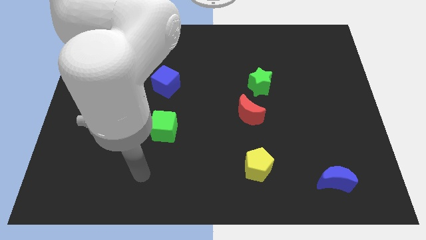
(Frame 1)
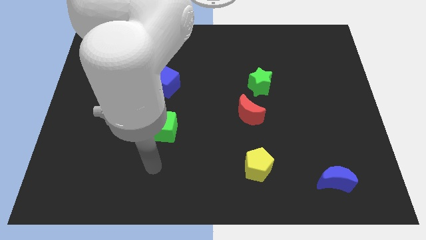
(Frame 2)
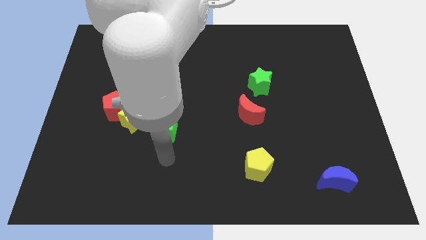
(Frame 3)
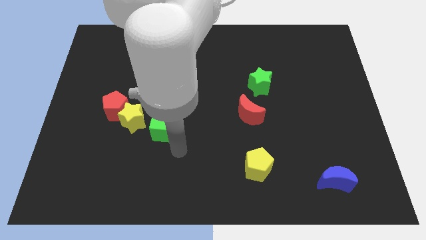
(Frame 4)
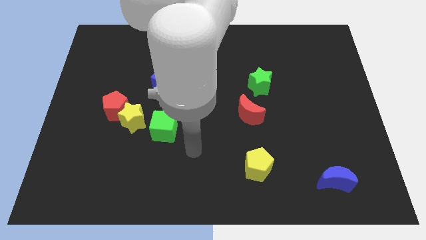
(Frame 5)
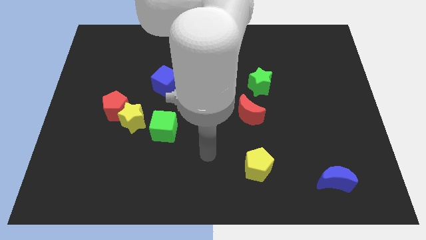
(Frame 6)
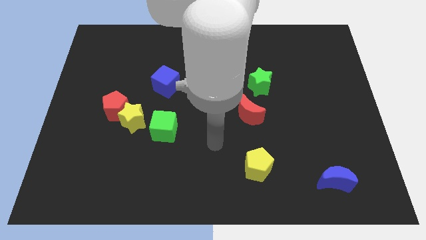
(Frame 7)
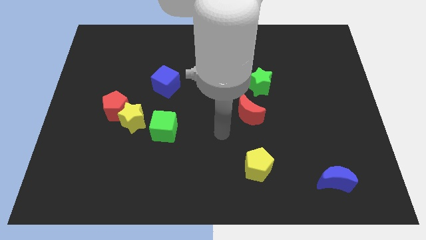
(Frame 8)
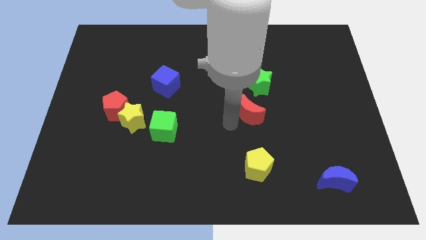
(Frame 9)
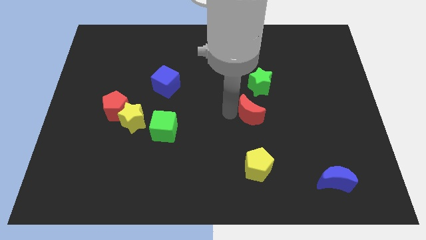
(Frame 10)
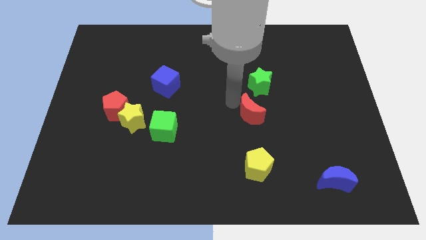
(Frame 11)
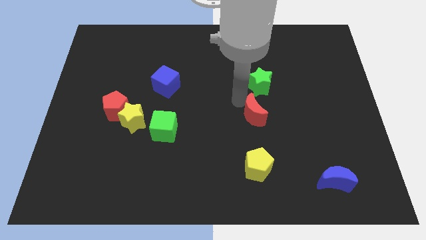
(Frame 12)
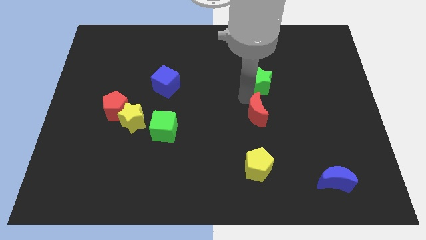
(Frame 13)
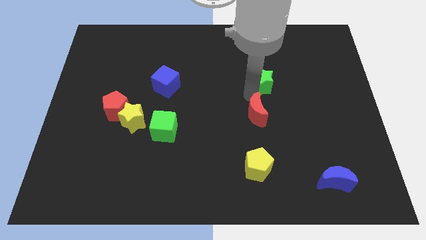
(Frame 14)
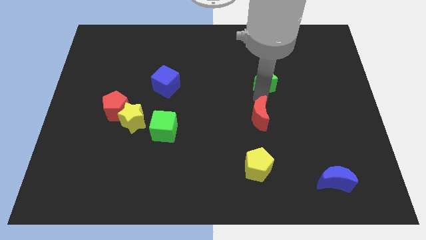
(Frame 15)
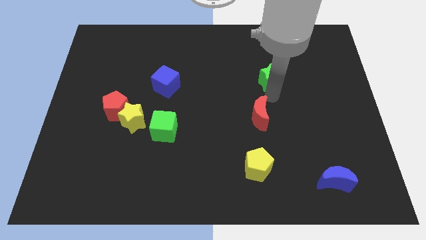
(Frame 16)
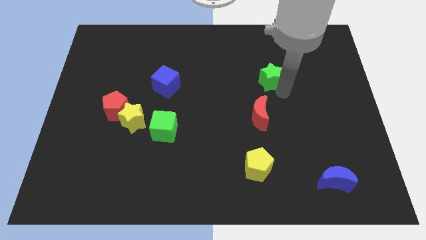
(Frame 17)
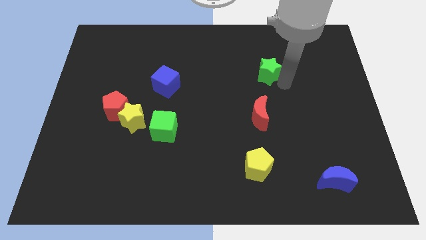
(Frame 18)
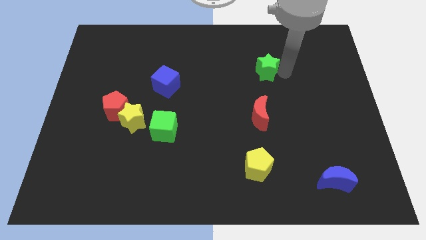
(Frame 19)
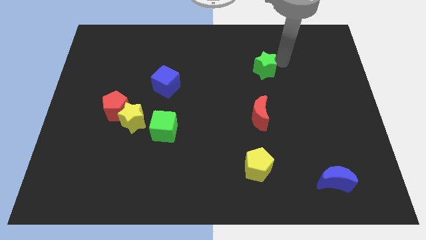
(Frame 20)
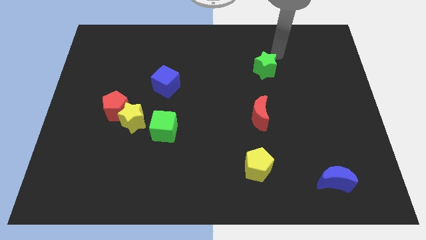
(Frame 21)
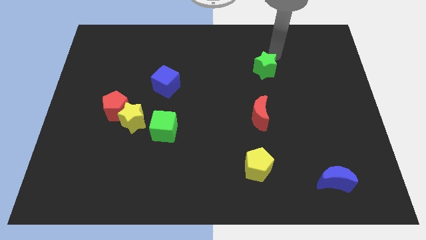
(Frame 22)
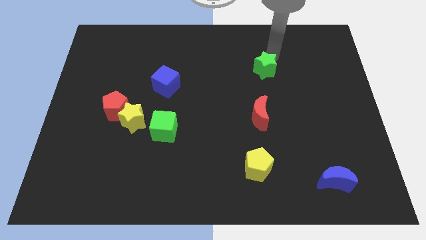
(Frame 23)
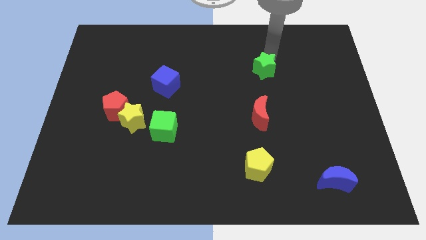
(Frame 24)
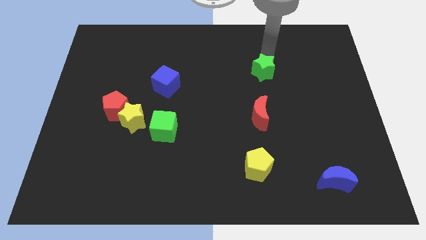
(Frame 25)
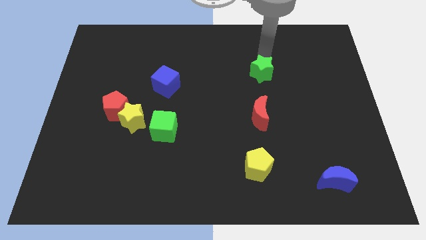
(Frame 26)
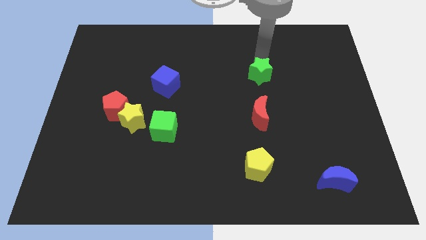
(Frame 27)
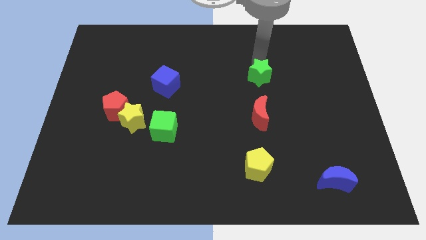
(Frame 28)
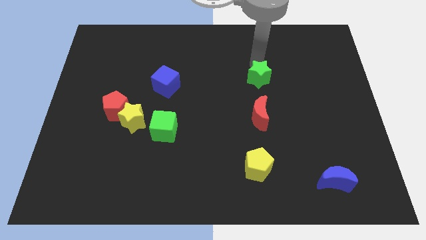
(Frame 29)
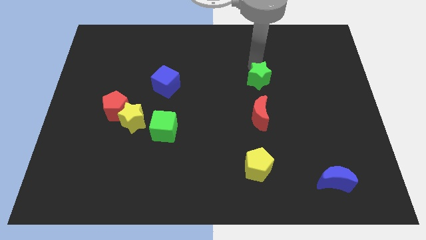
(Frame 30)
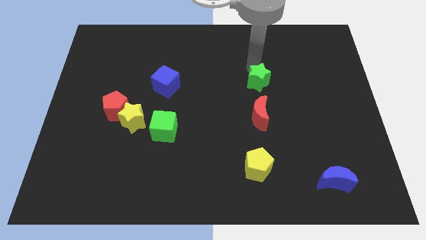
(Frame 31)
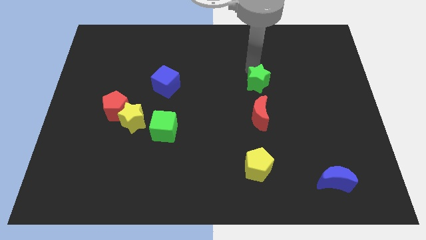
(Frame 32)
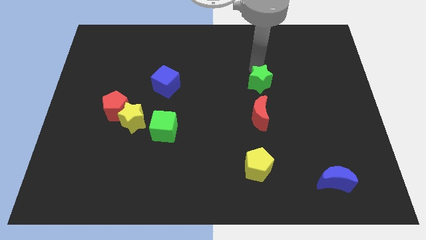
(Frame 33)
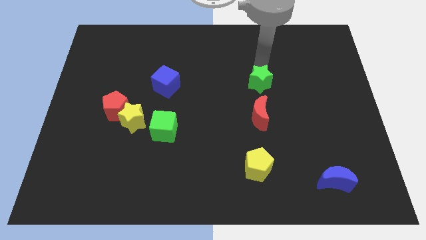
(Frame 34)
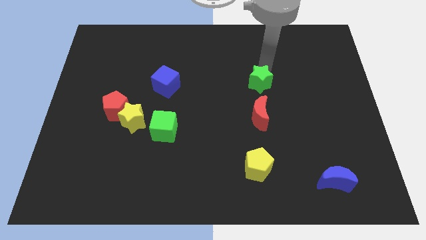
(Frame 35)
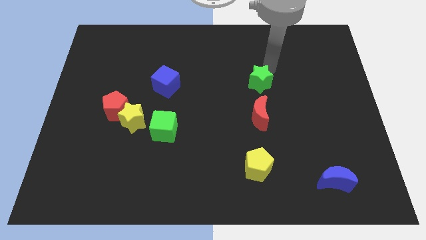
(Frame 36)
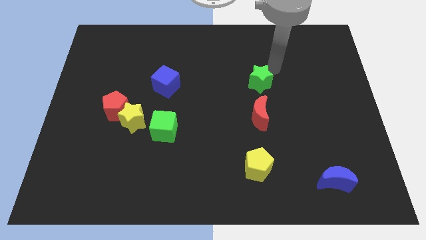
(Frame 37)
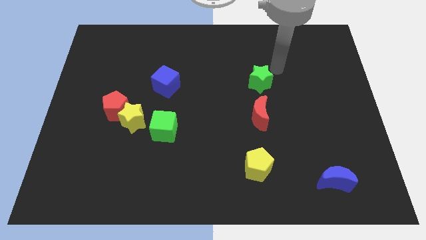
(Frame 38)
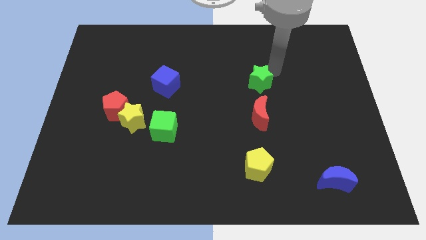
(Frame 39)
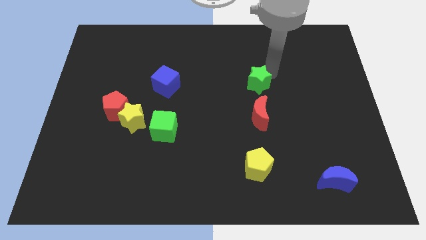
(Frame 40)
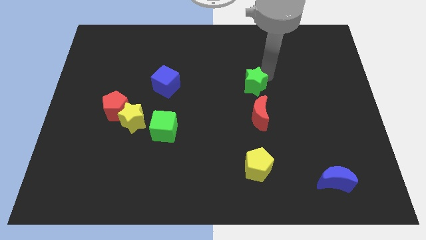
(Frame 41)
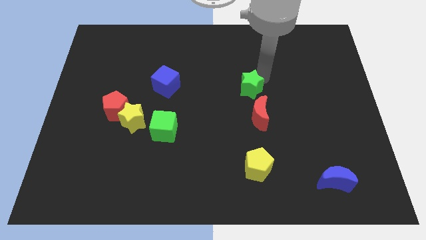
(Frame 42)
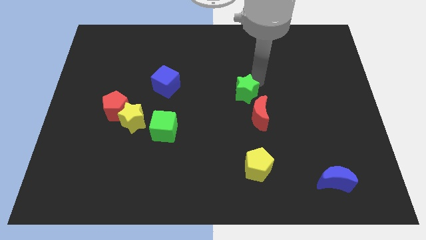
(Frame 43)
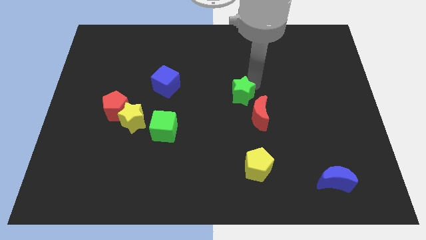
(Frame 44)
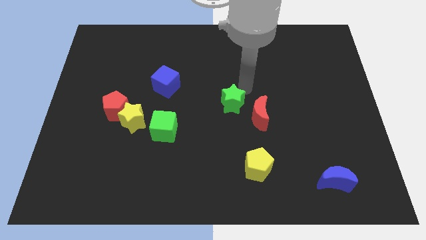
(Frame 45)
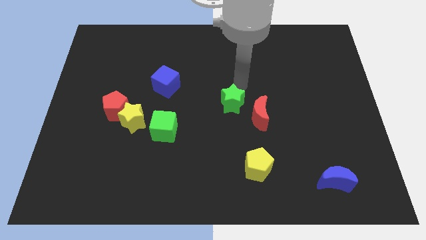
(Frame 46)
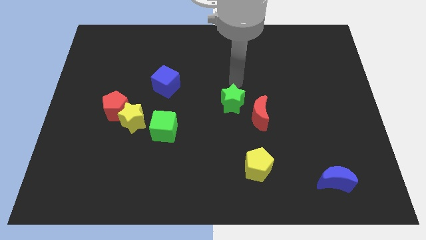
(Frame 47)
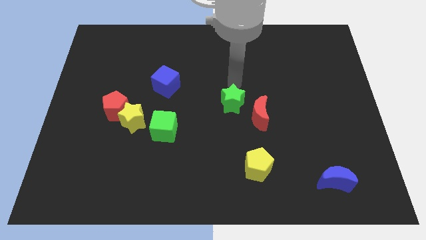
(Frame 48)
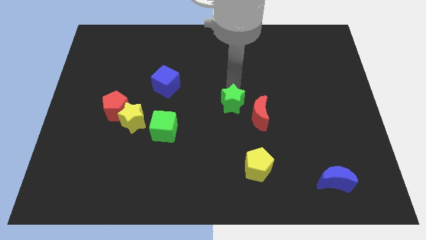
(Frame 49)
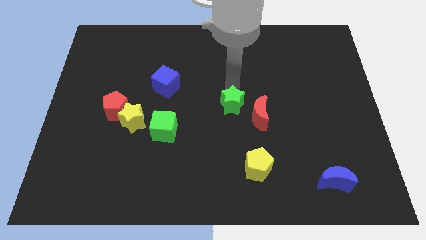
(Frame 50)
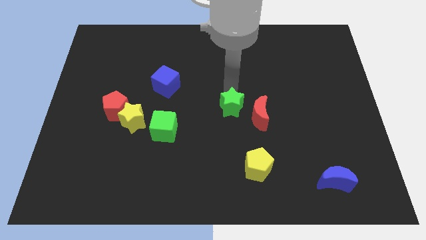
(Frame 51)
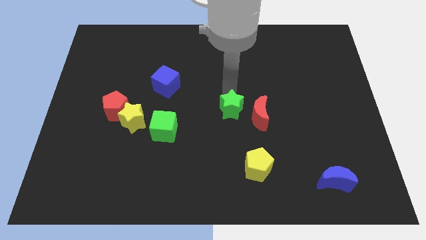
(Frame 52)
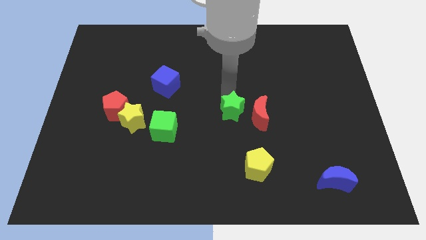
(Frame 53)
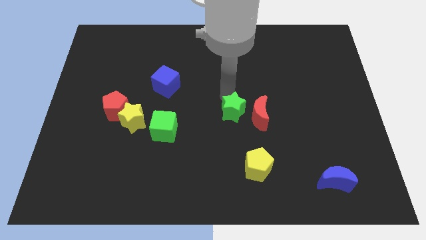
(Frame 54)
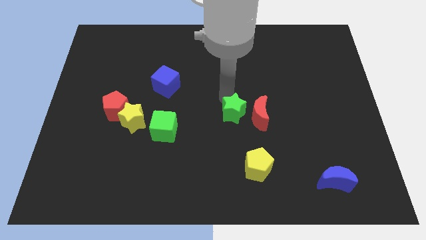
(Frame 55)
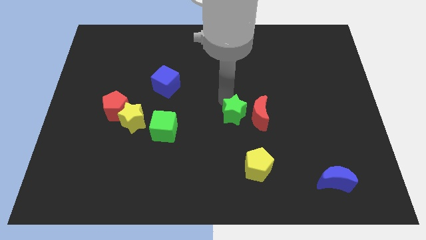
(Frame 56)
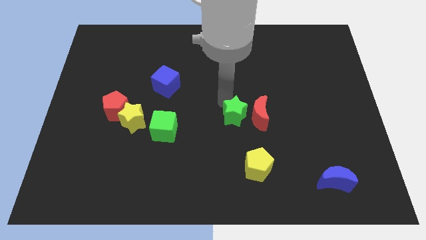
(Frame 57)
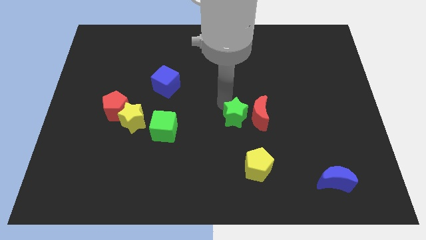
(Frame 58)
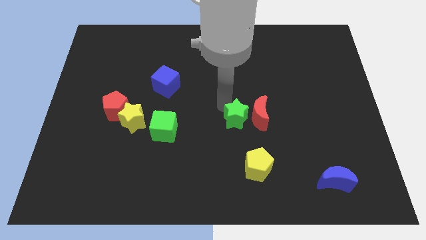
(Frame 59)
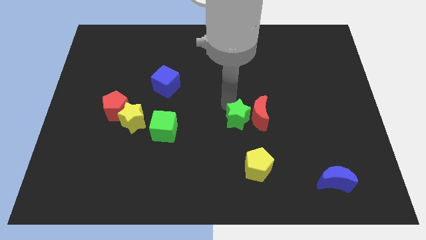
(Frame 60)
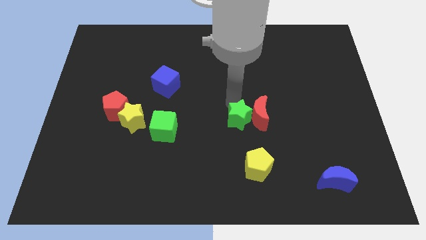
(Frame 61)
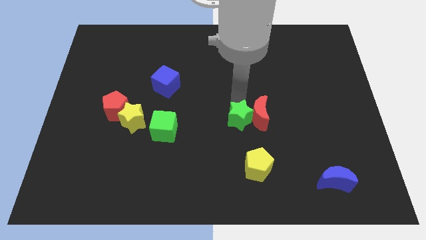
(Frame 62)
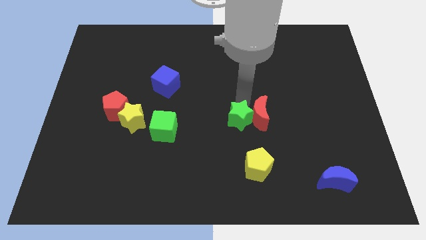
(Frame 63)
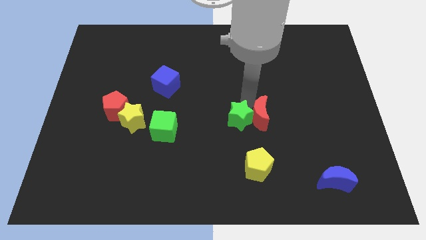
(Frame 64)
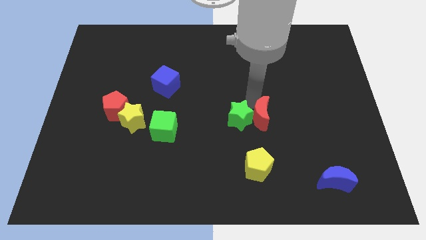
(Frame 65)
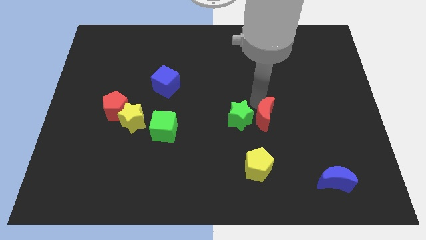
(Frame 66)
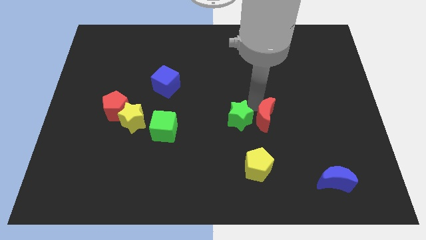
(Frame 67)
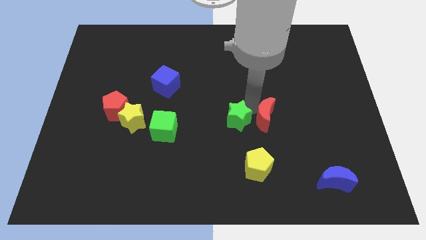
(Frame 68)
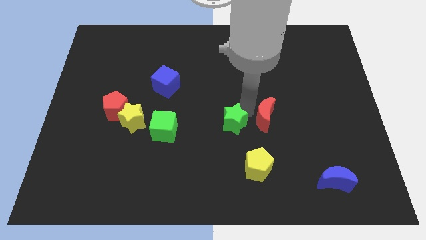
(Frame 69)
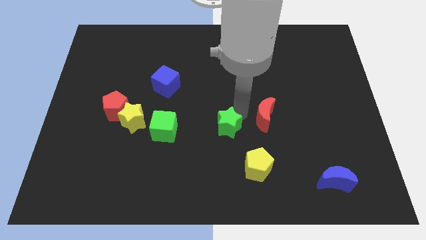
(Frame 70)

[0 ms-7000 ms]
move the green star diagonally up and to the left of the yellow pentagon

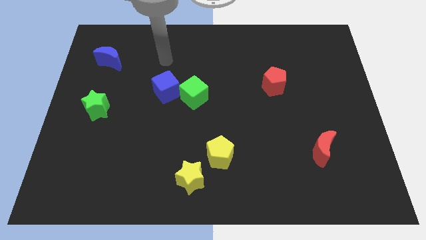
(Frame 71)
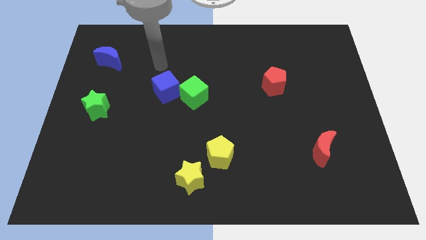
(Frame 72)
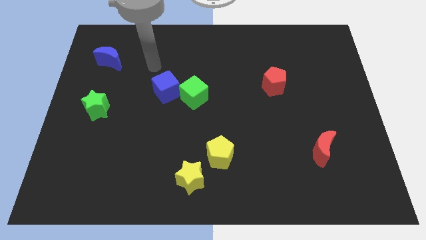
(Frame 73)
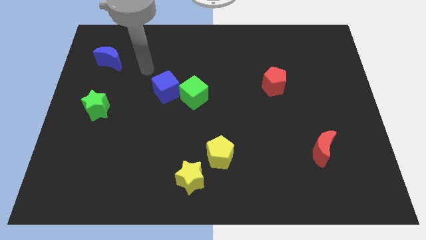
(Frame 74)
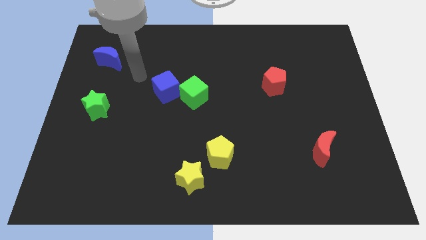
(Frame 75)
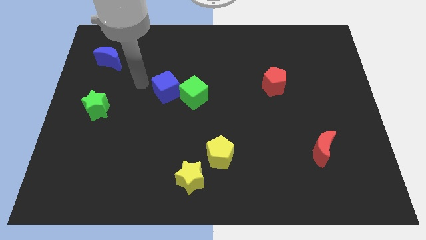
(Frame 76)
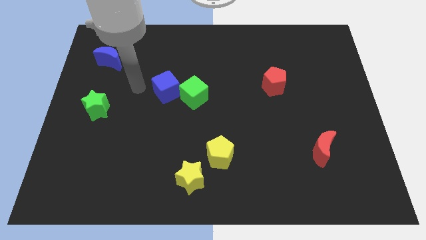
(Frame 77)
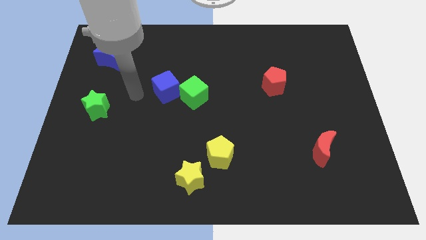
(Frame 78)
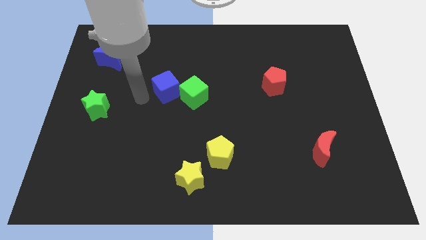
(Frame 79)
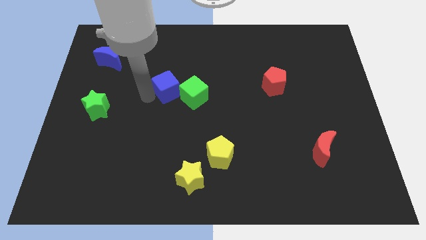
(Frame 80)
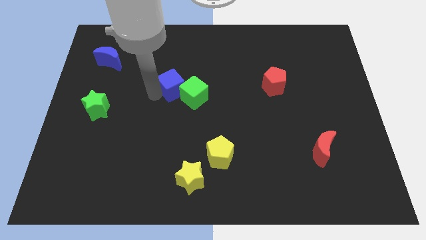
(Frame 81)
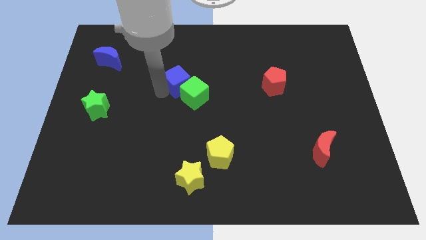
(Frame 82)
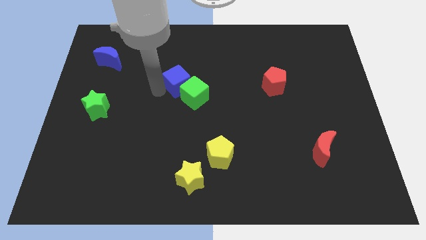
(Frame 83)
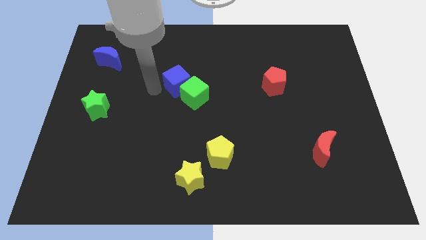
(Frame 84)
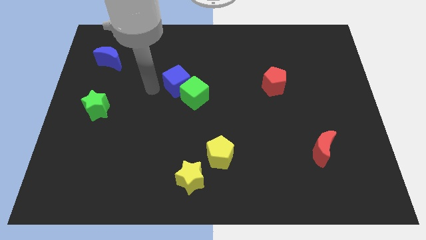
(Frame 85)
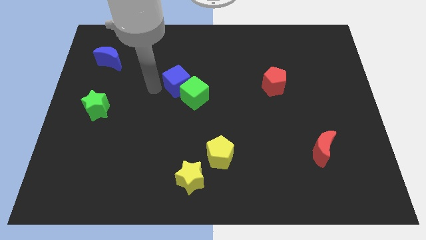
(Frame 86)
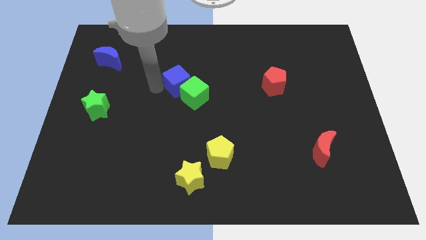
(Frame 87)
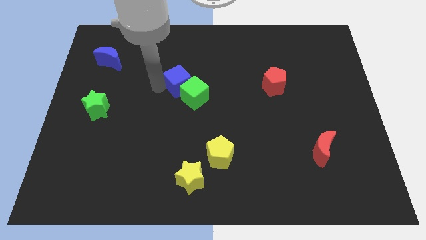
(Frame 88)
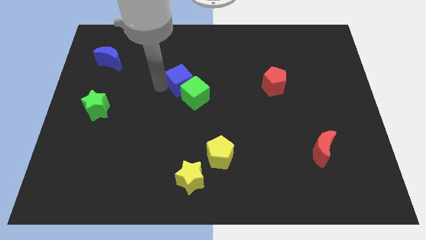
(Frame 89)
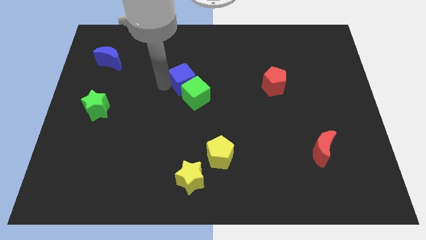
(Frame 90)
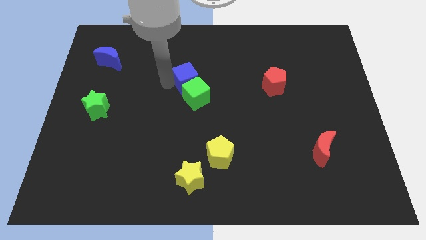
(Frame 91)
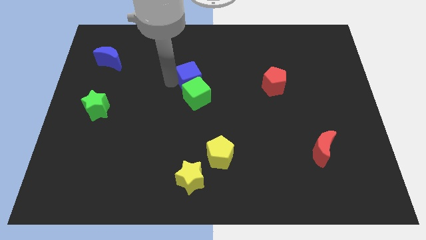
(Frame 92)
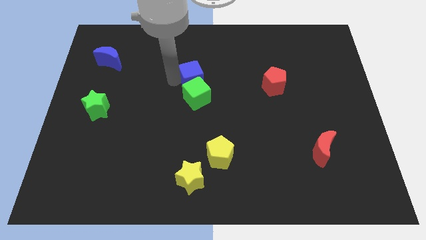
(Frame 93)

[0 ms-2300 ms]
push the blue cube to the top right of the green cube
